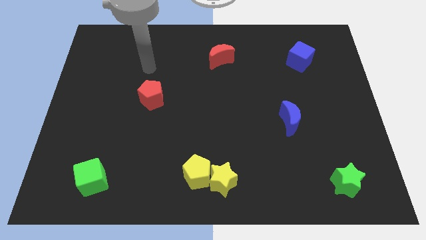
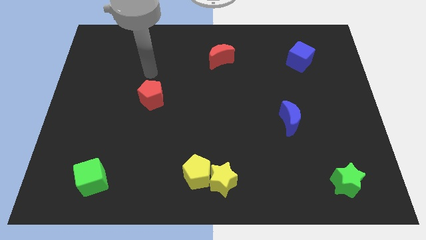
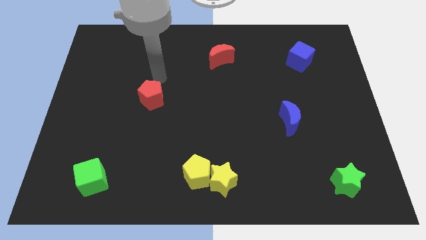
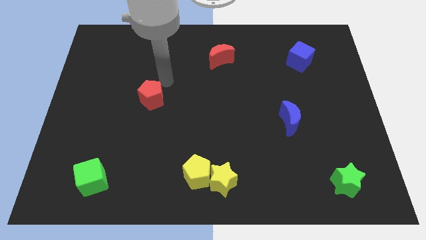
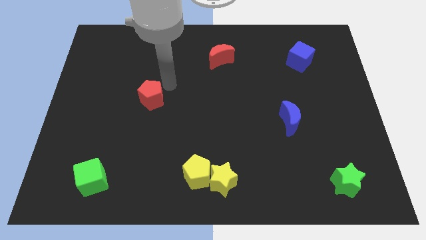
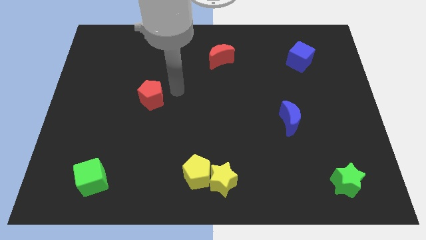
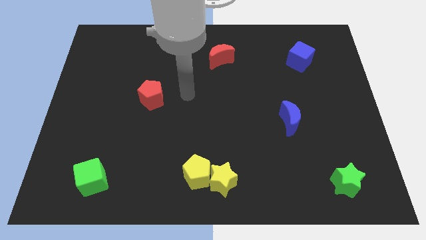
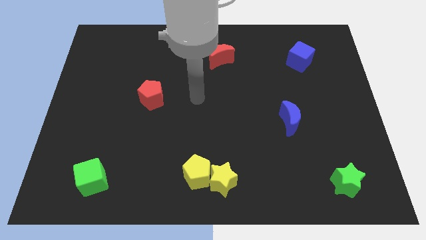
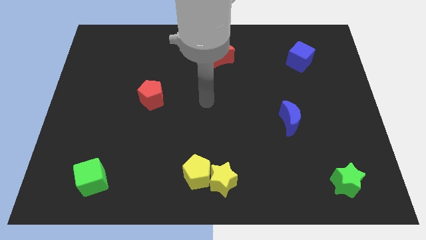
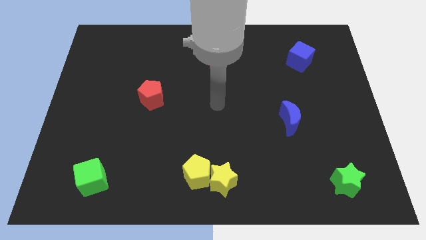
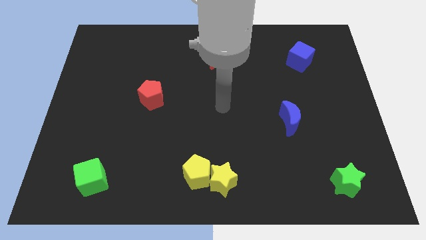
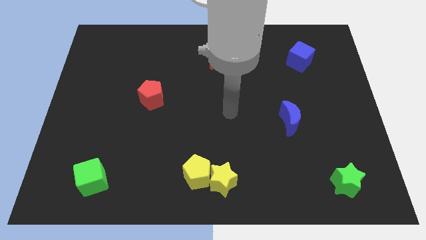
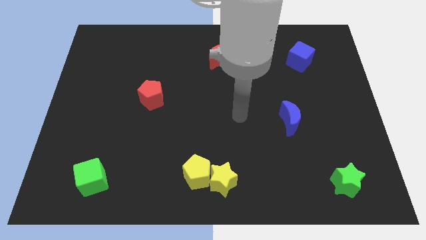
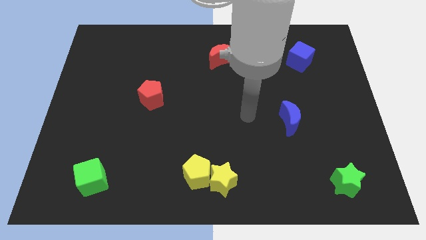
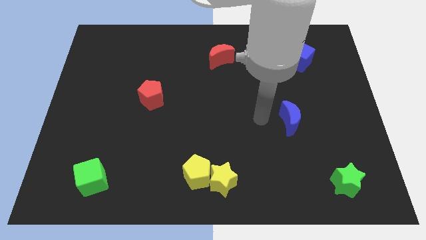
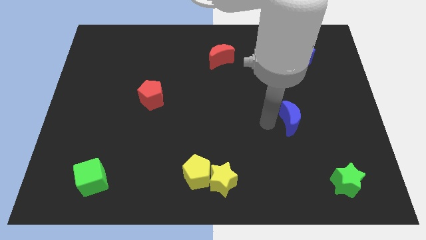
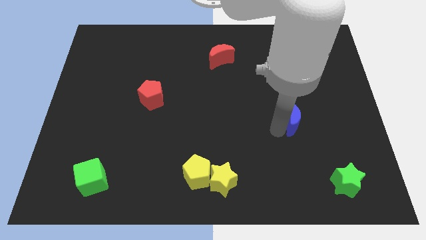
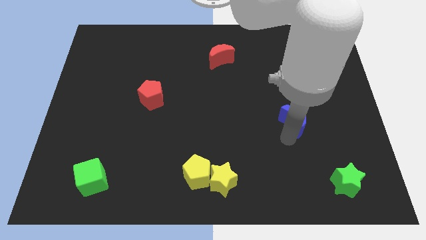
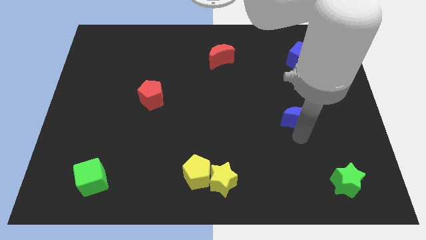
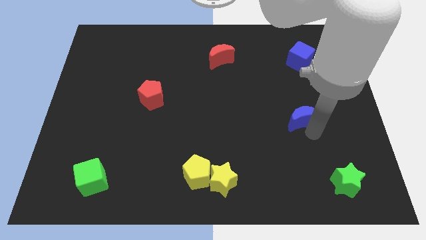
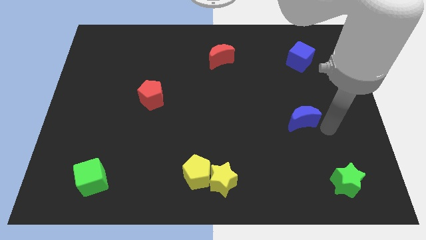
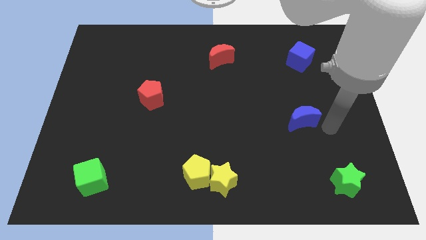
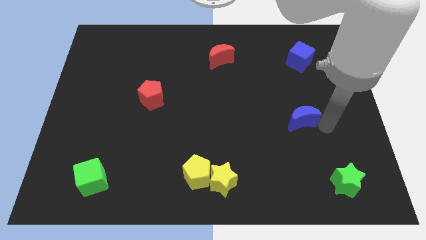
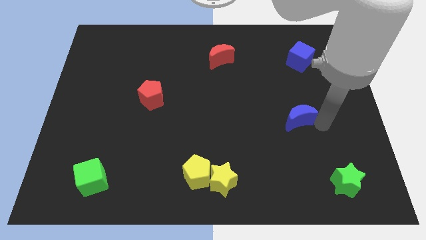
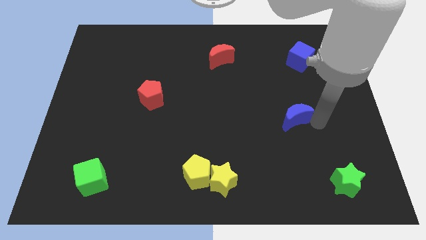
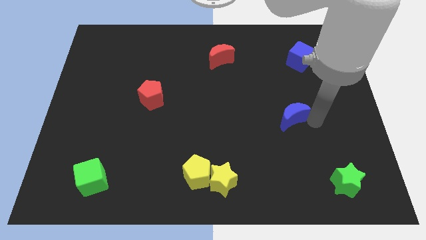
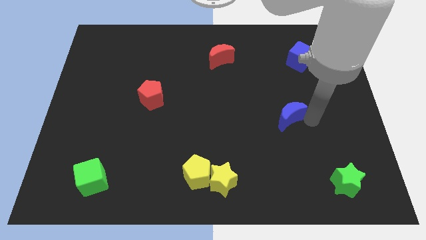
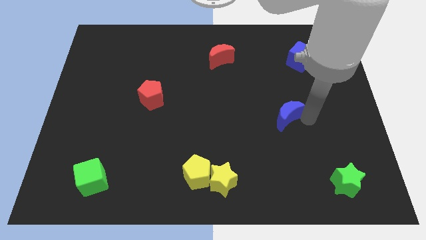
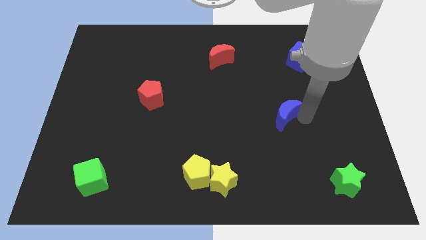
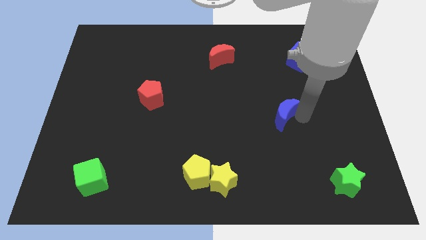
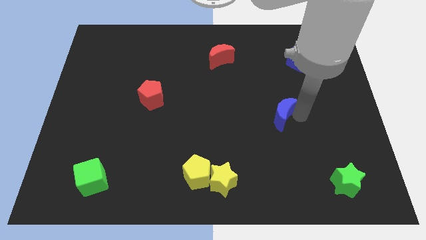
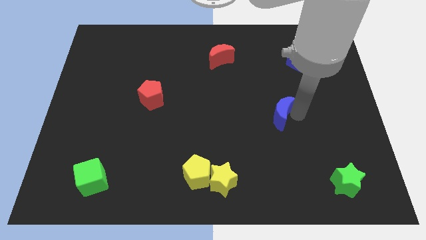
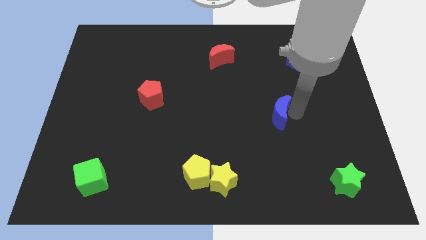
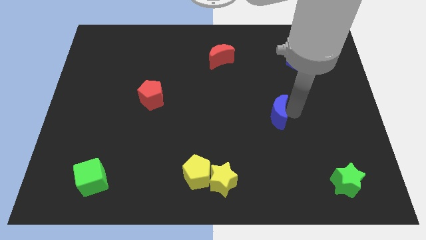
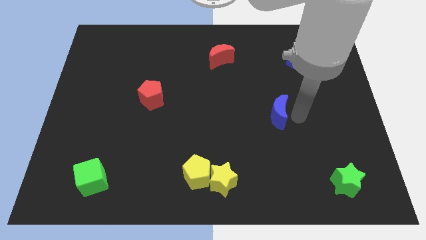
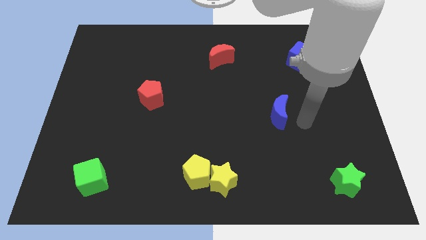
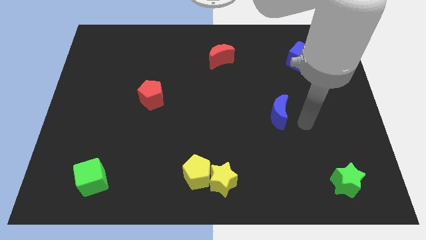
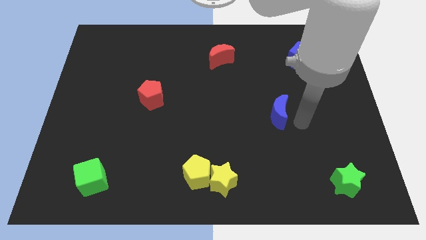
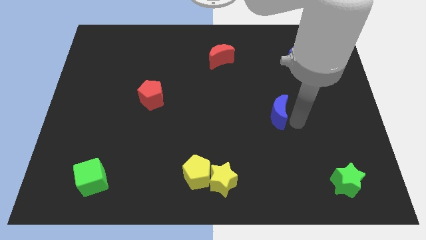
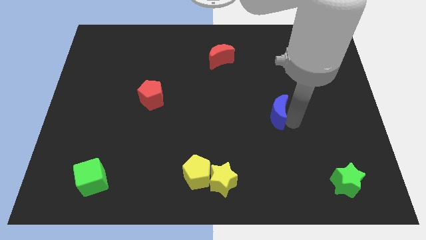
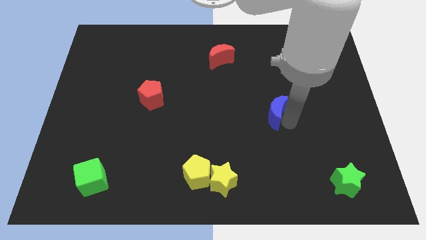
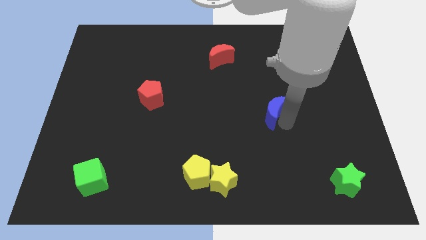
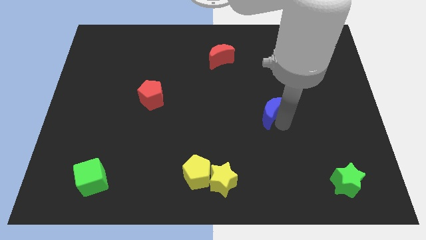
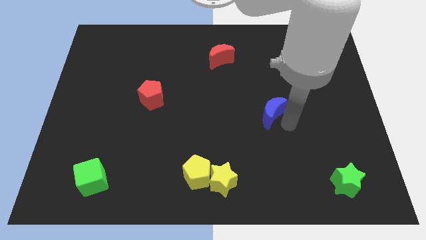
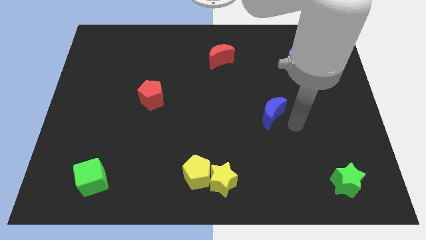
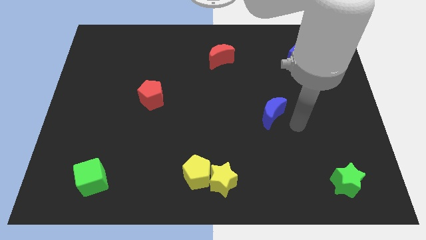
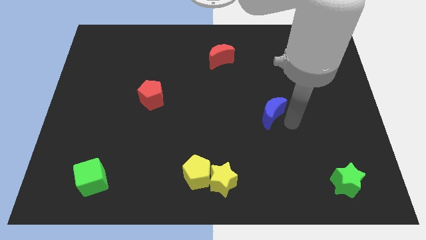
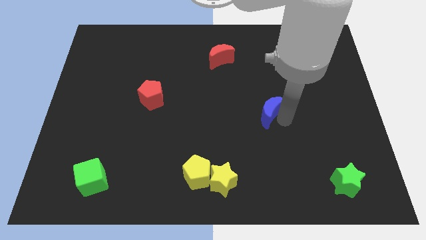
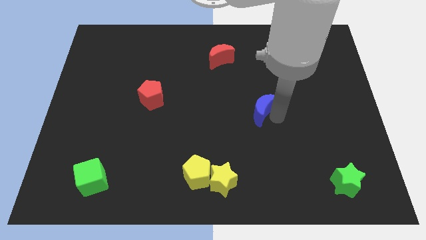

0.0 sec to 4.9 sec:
push the blue moon to the middle of the board

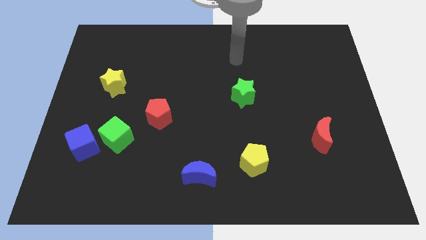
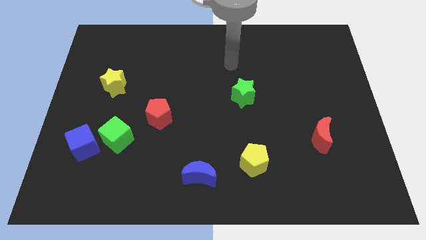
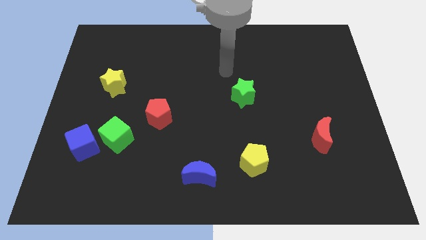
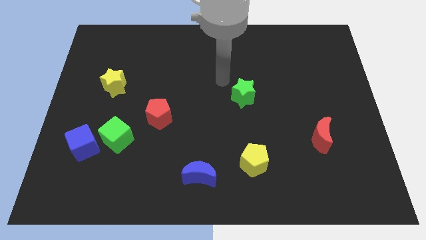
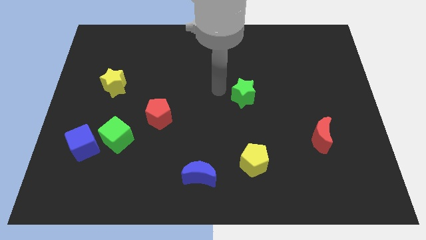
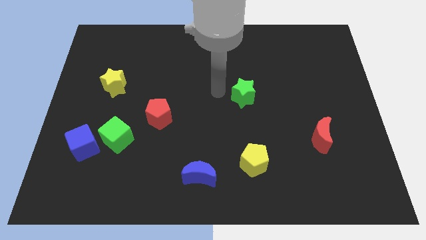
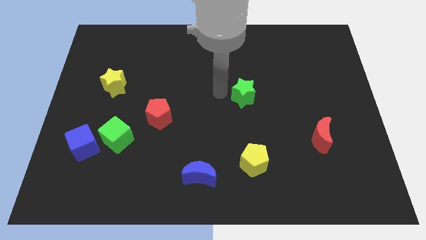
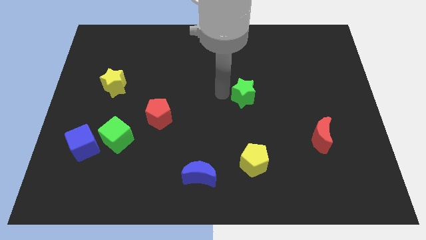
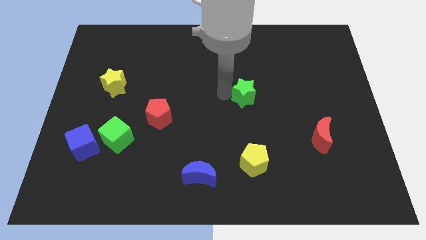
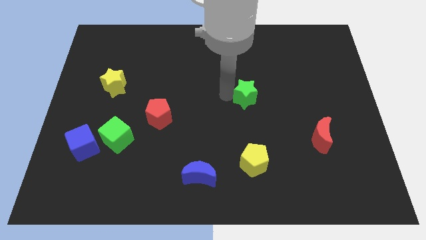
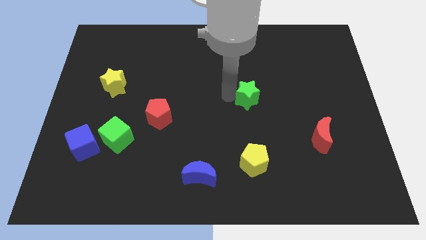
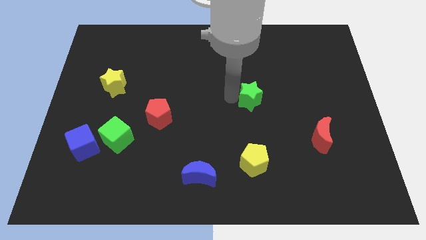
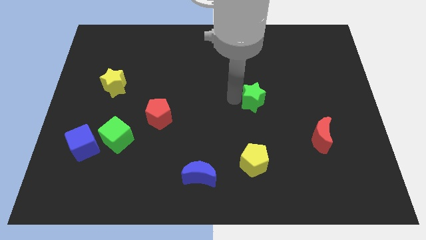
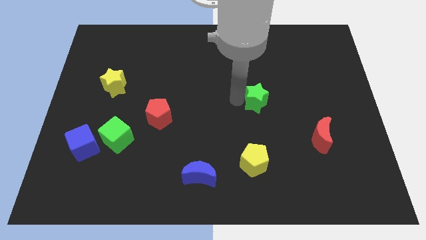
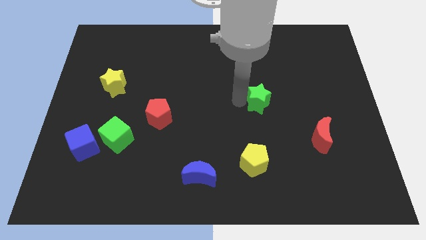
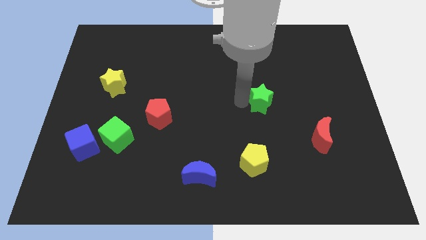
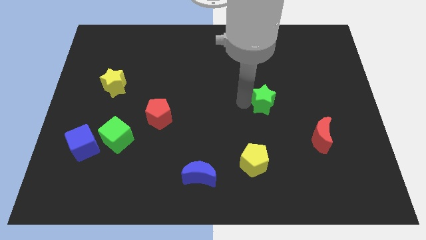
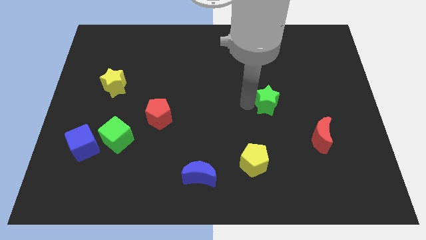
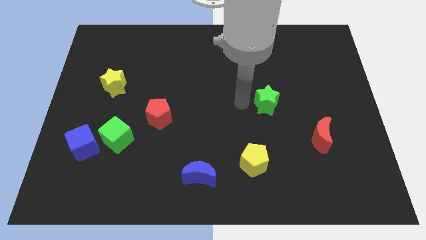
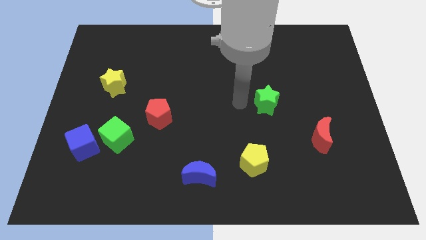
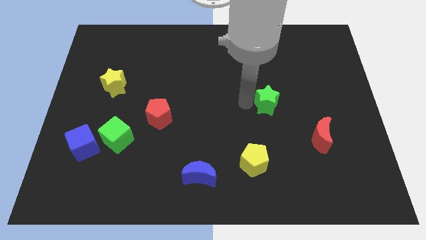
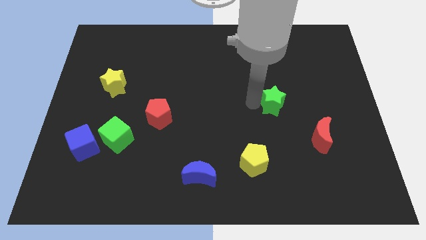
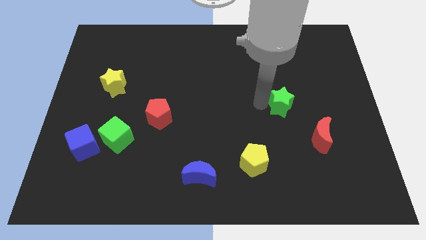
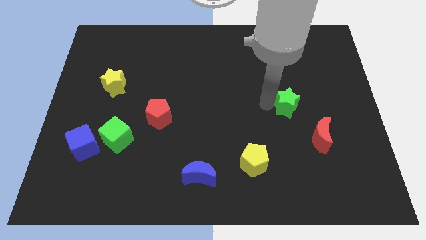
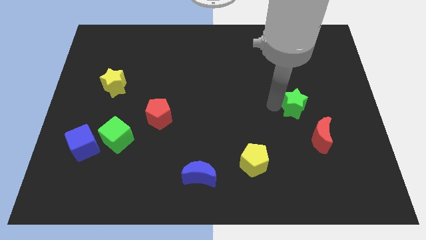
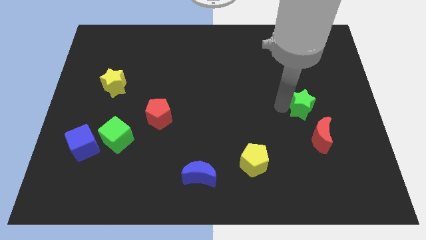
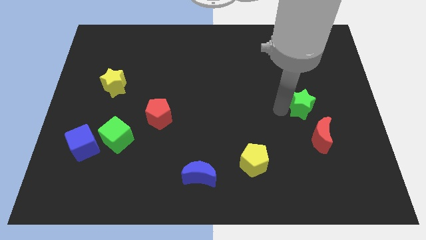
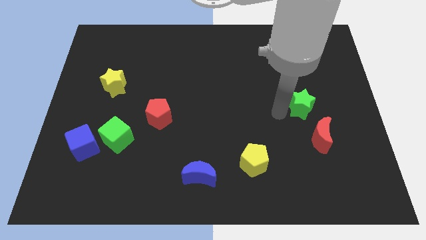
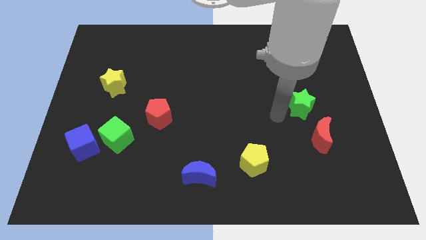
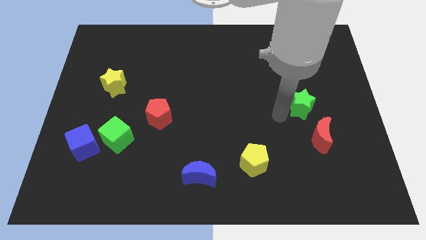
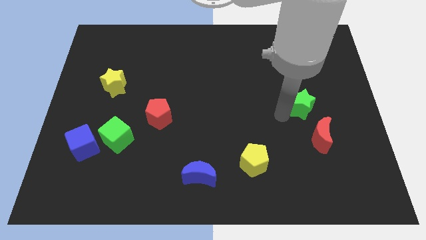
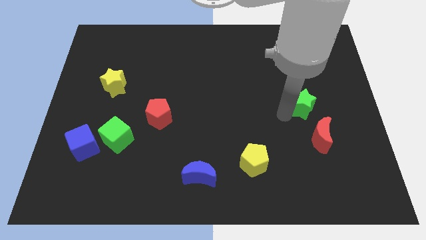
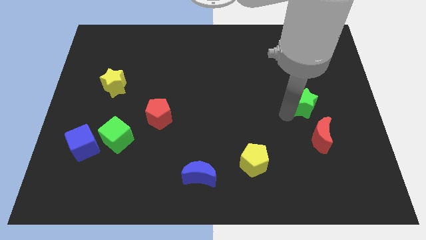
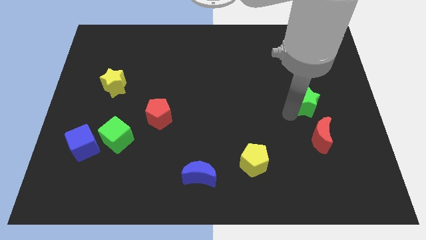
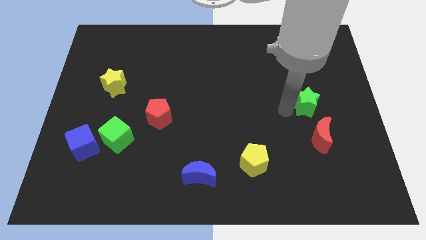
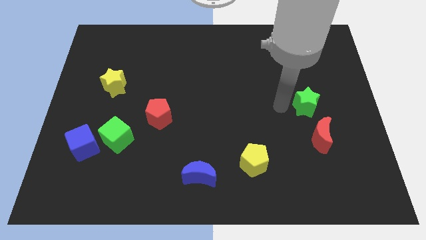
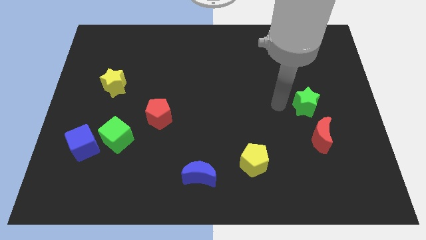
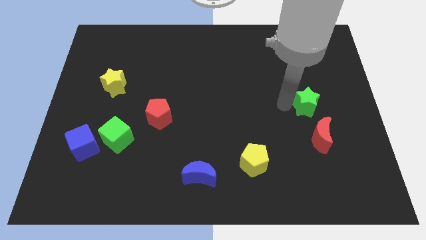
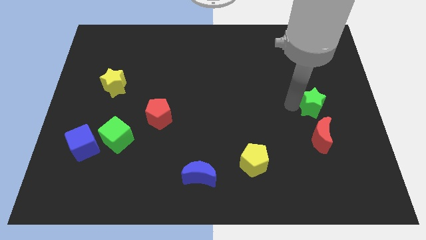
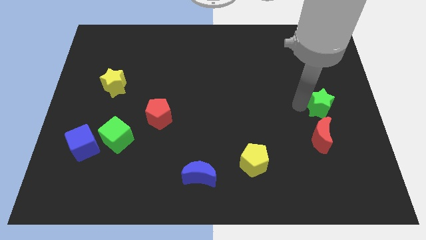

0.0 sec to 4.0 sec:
push the green star to the center right
